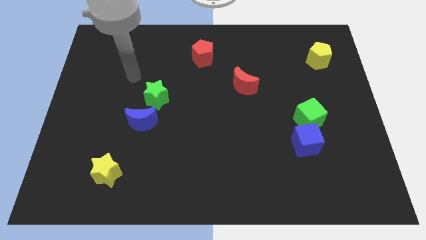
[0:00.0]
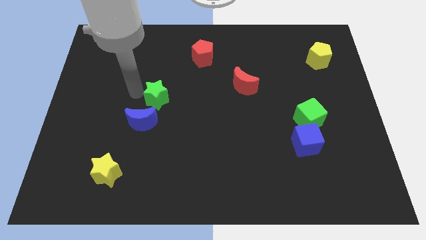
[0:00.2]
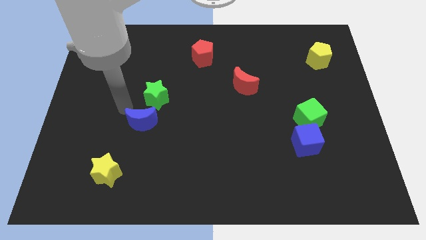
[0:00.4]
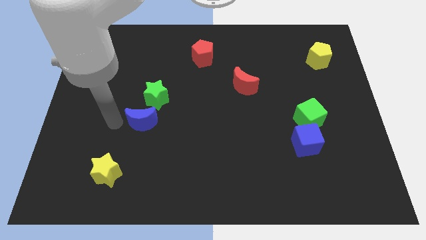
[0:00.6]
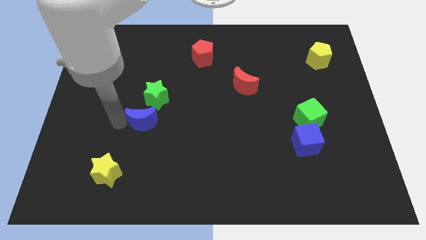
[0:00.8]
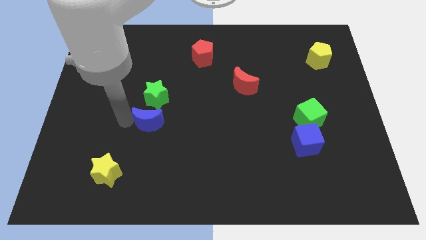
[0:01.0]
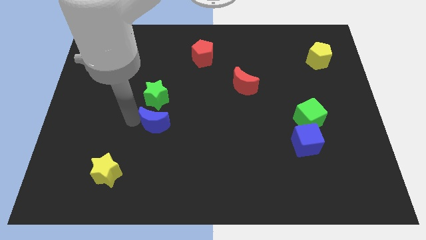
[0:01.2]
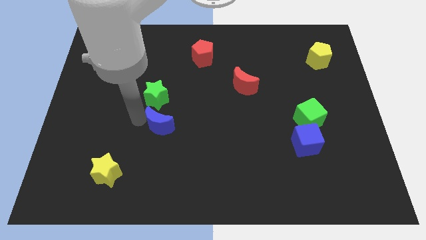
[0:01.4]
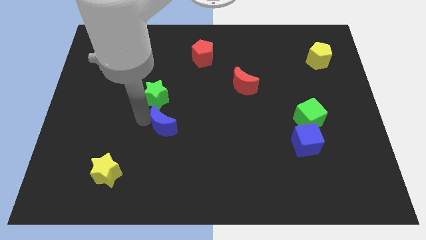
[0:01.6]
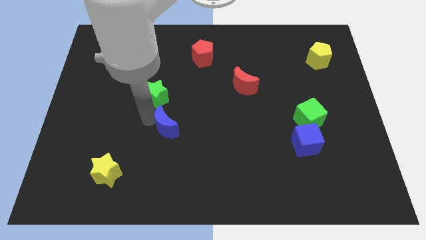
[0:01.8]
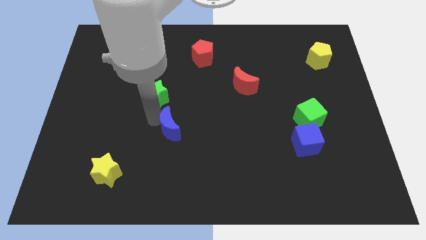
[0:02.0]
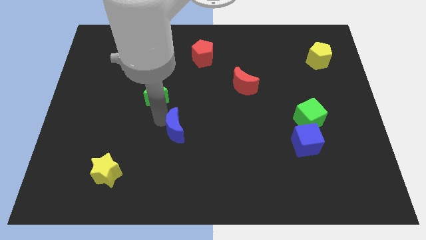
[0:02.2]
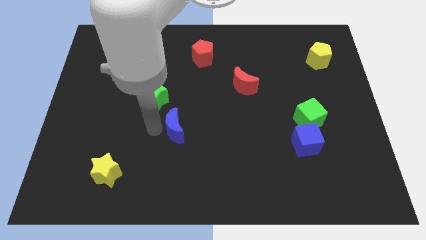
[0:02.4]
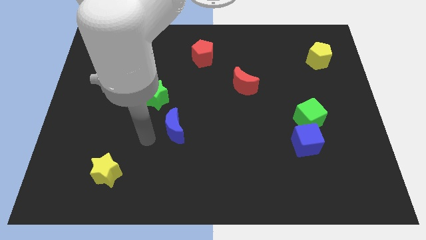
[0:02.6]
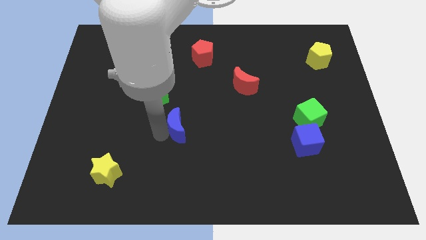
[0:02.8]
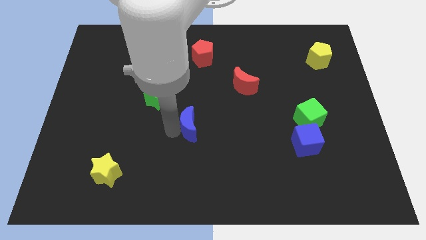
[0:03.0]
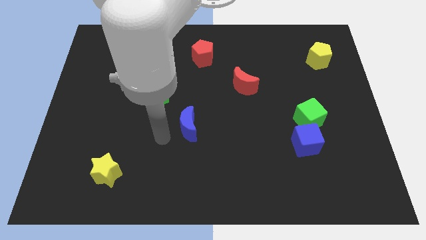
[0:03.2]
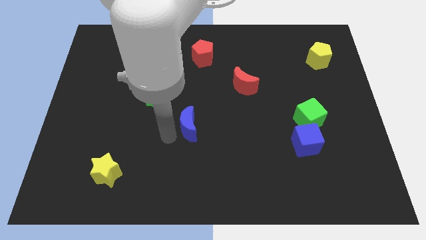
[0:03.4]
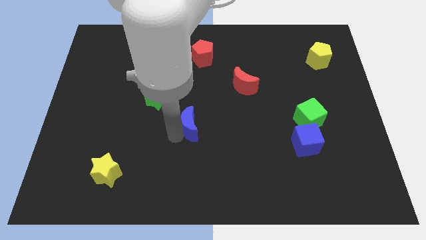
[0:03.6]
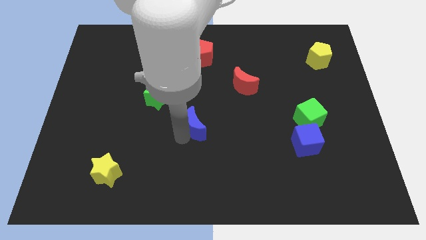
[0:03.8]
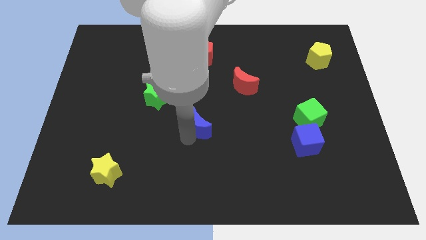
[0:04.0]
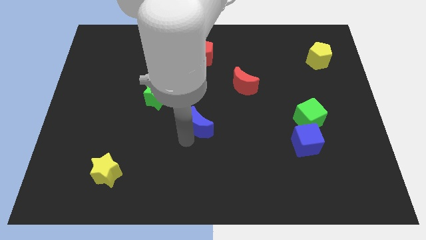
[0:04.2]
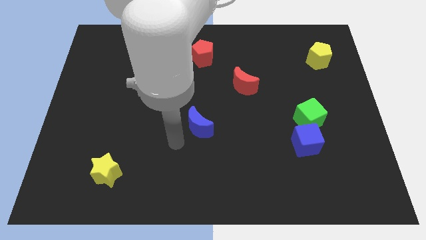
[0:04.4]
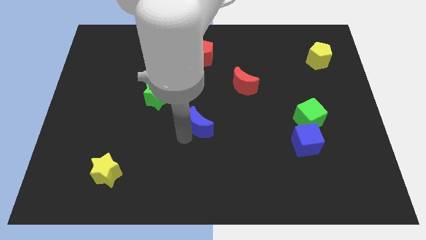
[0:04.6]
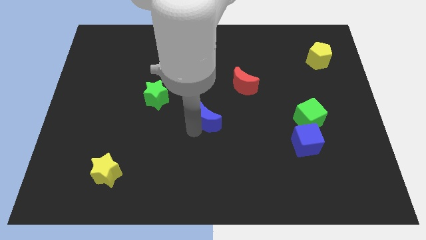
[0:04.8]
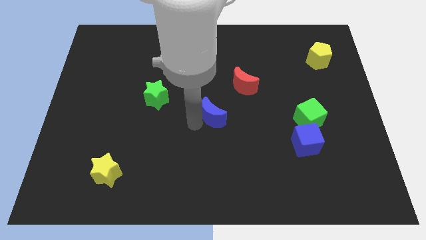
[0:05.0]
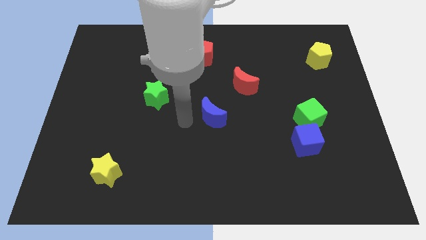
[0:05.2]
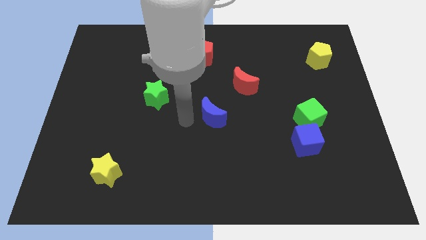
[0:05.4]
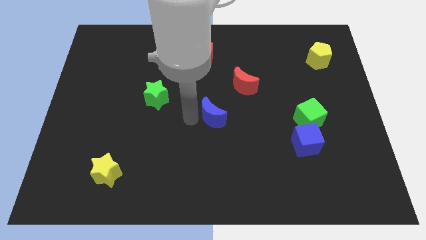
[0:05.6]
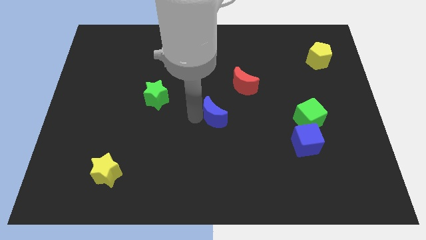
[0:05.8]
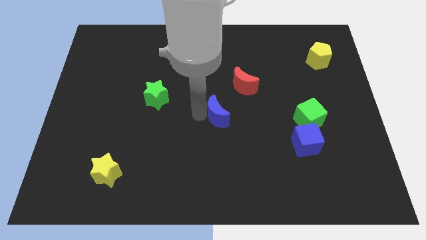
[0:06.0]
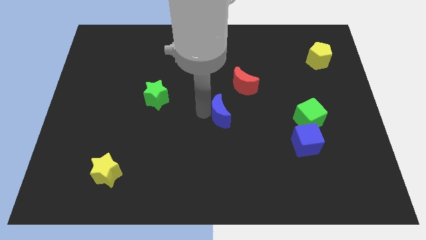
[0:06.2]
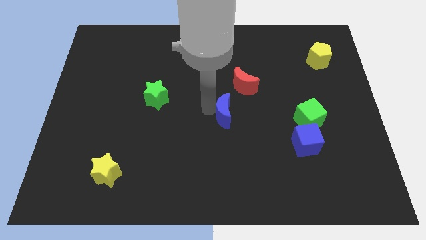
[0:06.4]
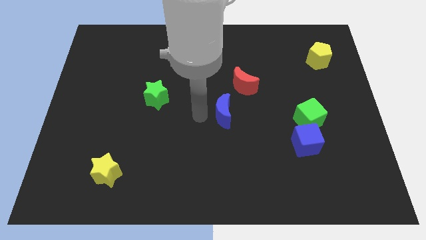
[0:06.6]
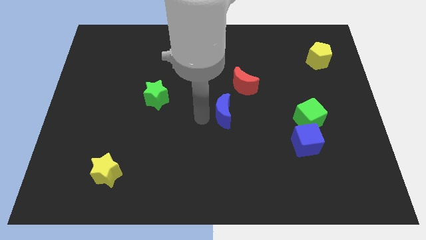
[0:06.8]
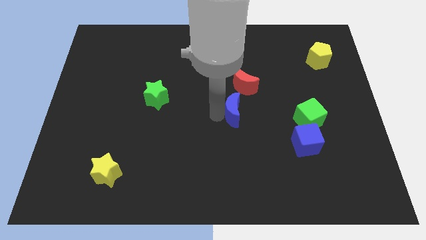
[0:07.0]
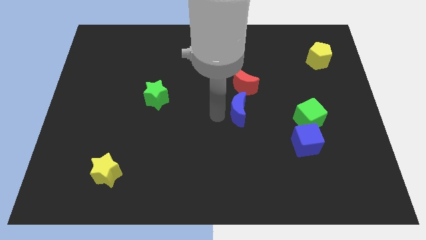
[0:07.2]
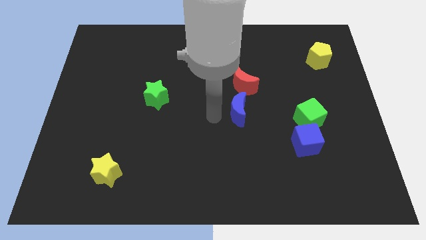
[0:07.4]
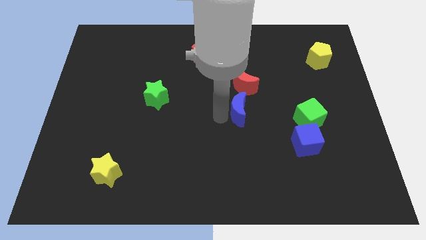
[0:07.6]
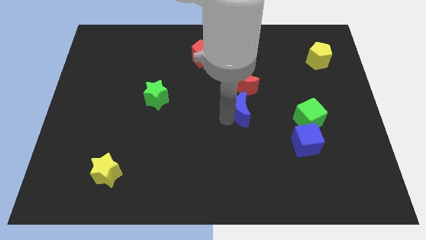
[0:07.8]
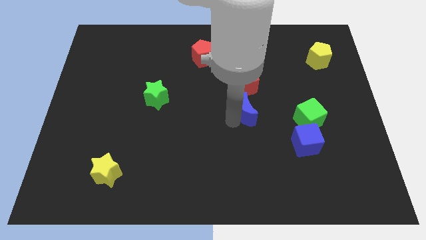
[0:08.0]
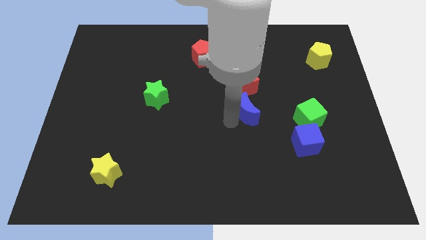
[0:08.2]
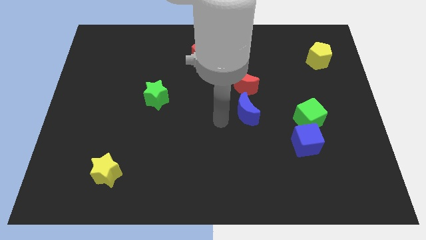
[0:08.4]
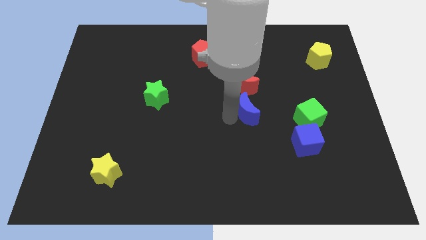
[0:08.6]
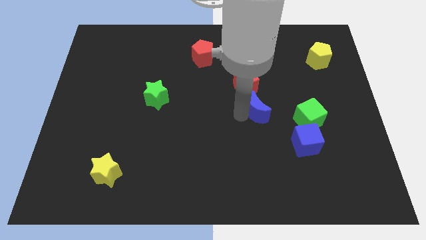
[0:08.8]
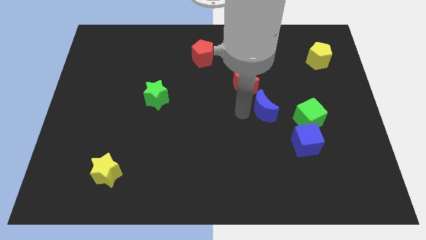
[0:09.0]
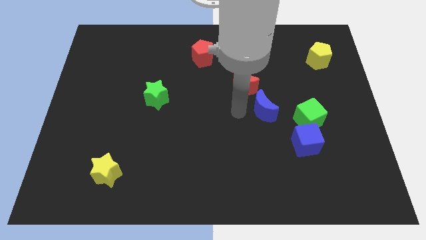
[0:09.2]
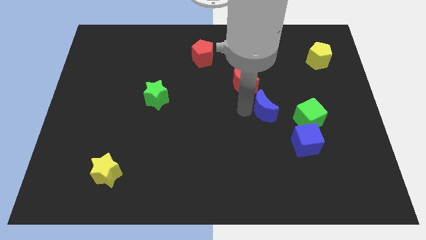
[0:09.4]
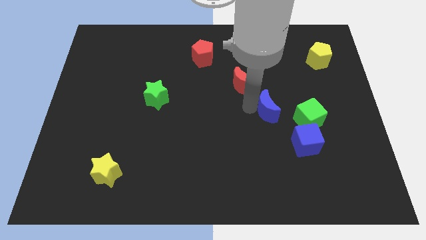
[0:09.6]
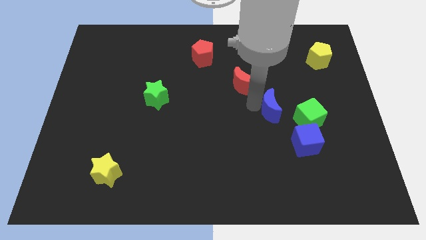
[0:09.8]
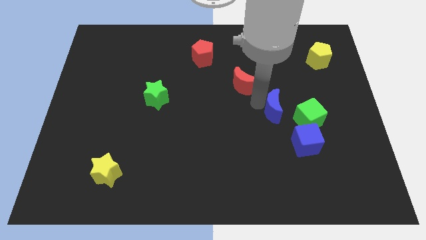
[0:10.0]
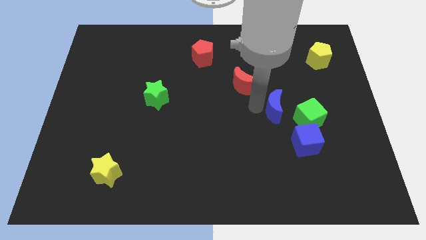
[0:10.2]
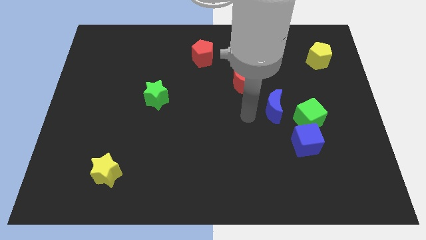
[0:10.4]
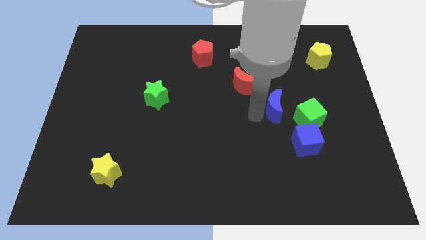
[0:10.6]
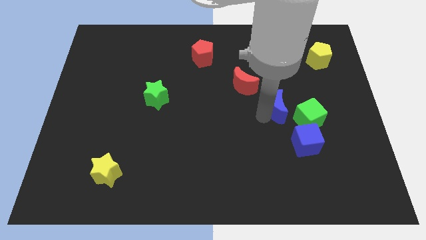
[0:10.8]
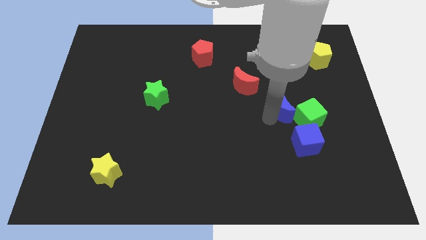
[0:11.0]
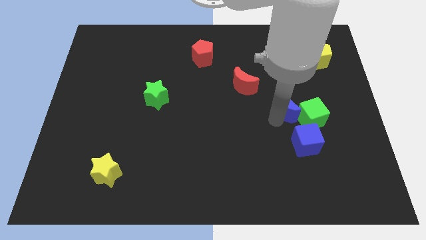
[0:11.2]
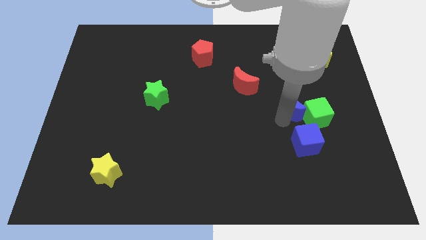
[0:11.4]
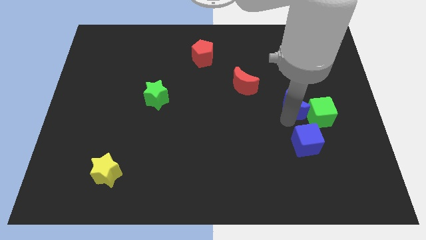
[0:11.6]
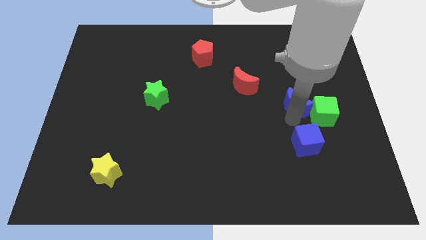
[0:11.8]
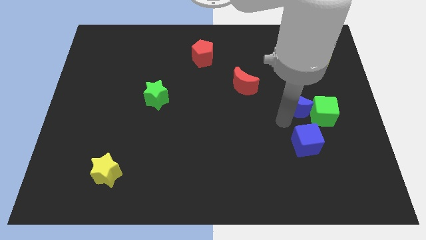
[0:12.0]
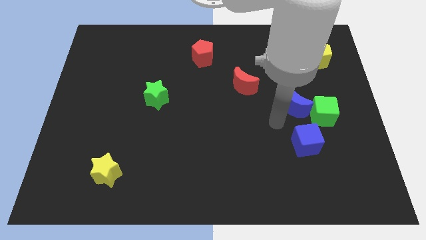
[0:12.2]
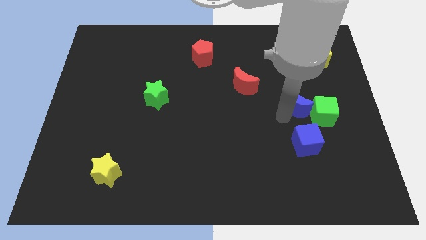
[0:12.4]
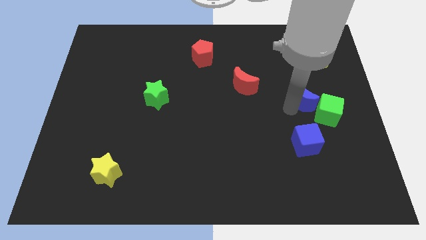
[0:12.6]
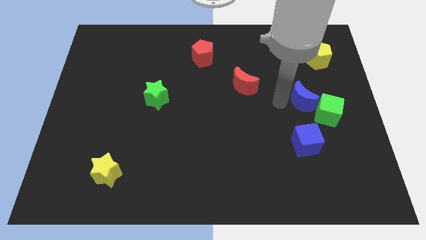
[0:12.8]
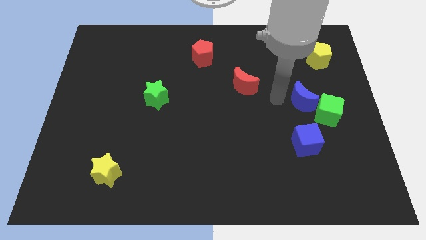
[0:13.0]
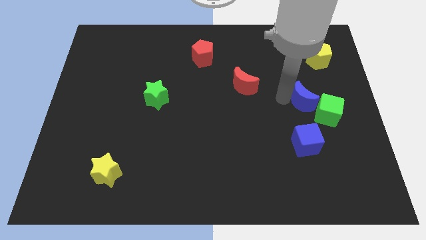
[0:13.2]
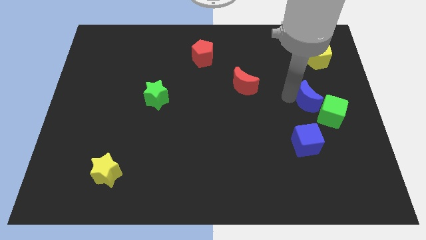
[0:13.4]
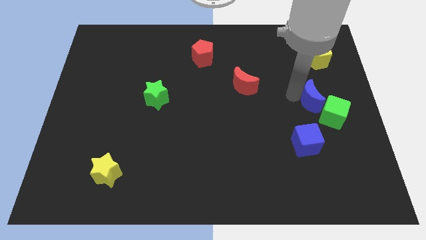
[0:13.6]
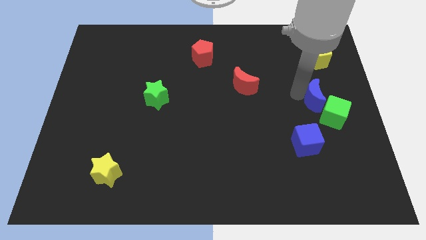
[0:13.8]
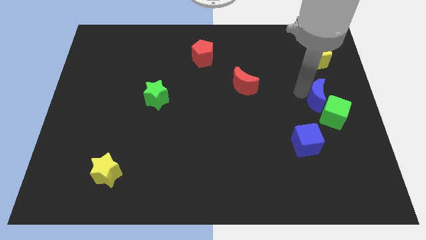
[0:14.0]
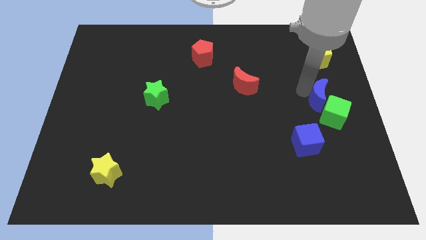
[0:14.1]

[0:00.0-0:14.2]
push the blue moon to the right side of the board
